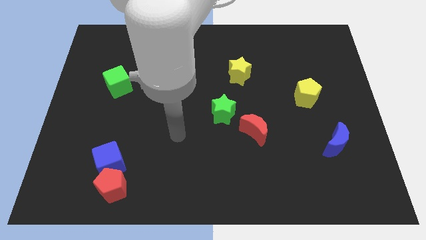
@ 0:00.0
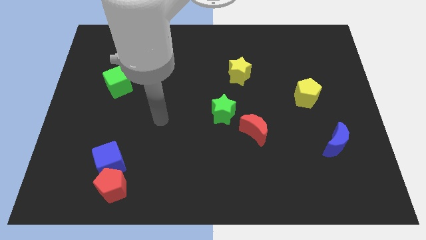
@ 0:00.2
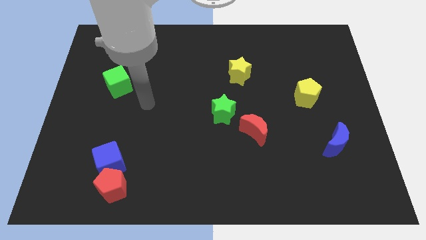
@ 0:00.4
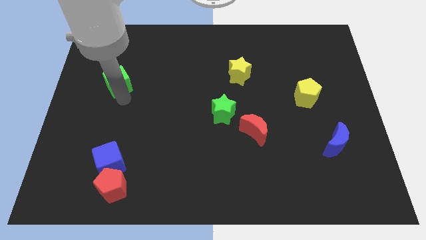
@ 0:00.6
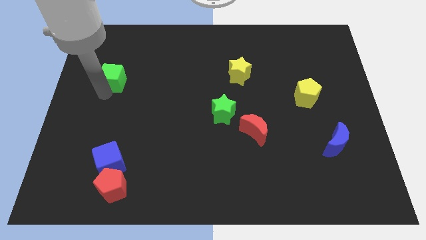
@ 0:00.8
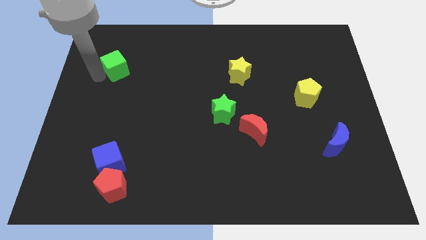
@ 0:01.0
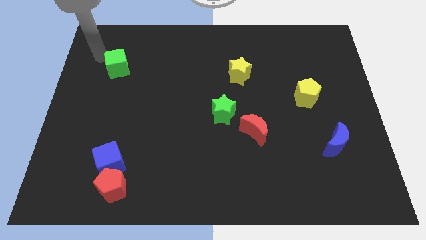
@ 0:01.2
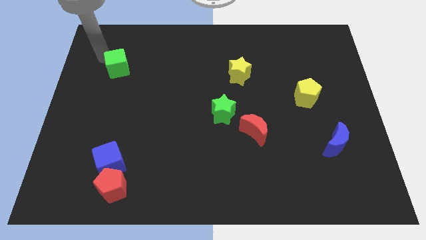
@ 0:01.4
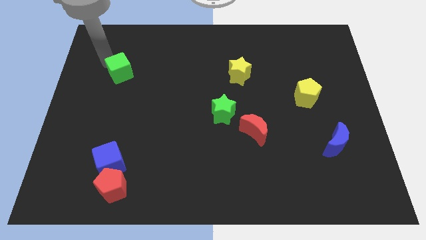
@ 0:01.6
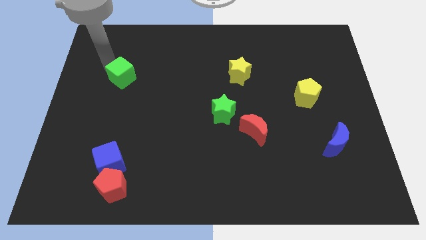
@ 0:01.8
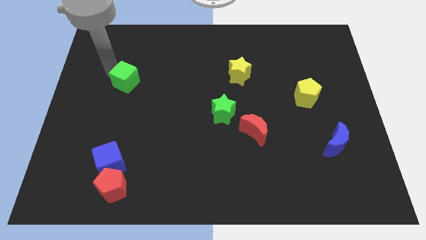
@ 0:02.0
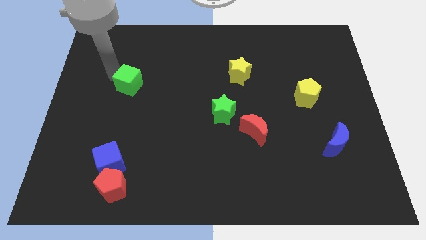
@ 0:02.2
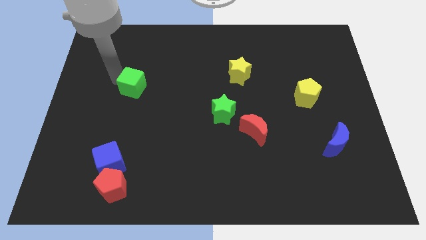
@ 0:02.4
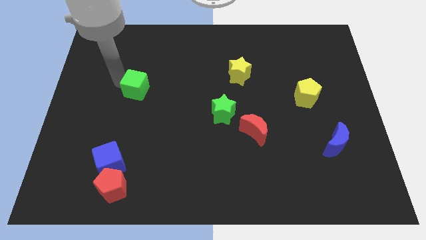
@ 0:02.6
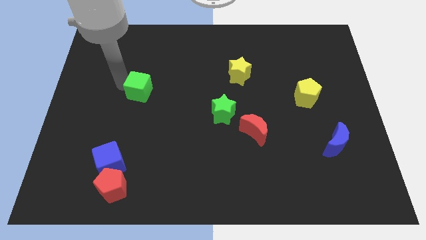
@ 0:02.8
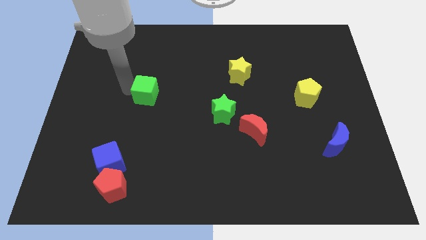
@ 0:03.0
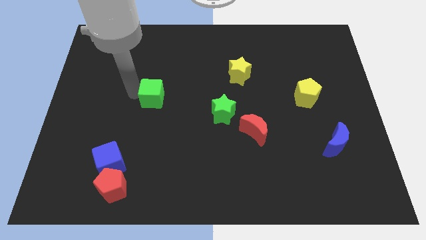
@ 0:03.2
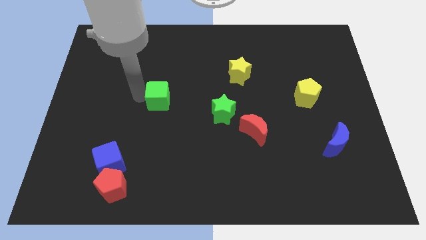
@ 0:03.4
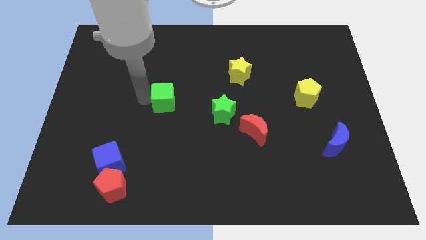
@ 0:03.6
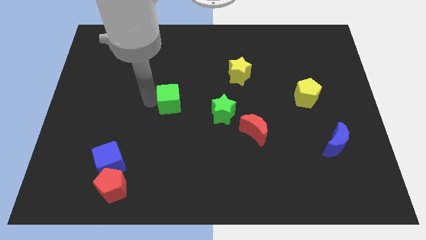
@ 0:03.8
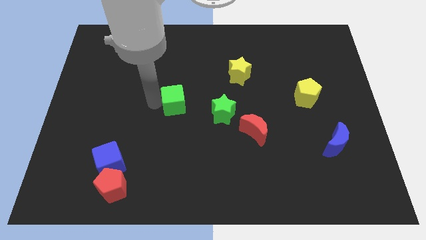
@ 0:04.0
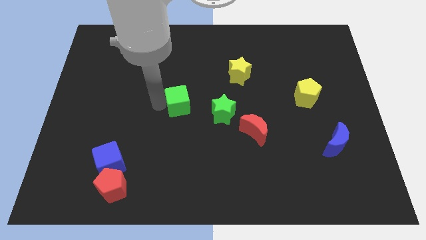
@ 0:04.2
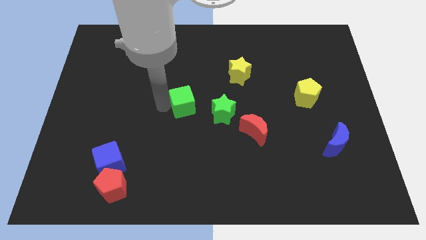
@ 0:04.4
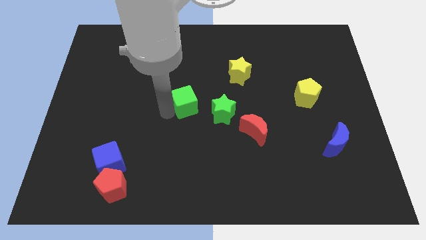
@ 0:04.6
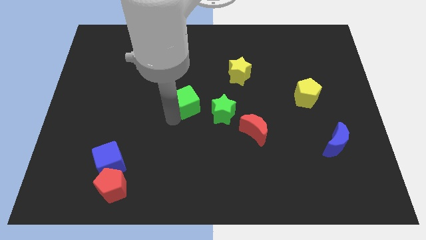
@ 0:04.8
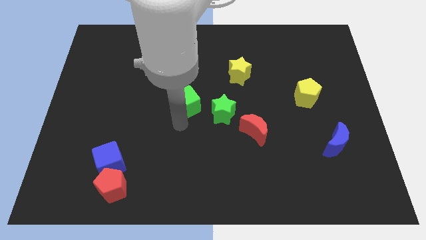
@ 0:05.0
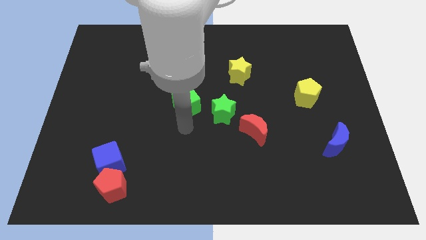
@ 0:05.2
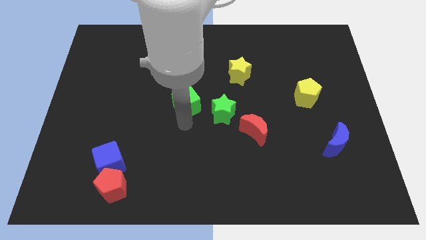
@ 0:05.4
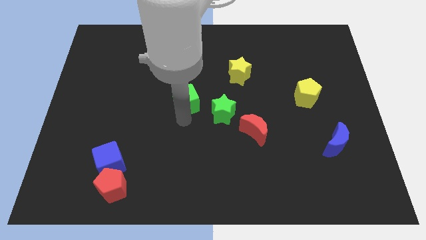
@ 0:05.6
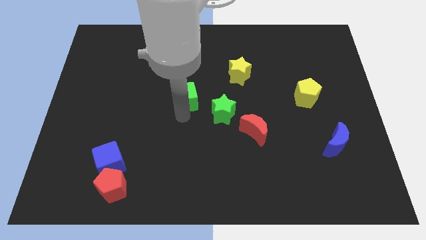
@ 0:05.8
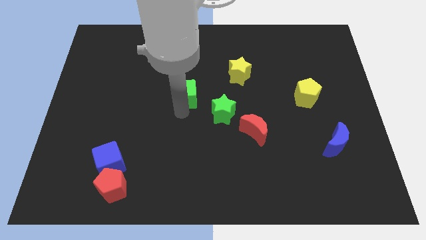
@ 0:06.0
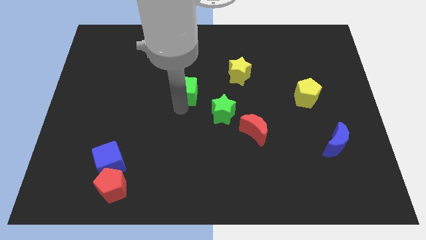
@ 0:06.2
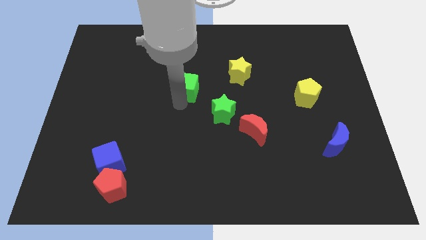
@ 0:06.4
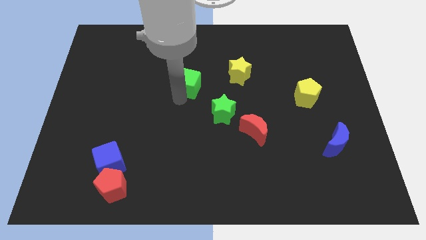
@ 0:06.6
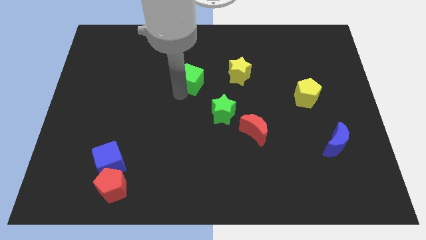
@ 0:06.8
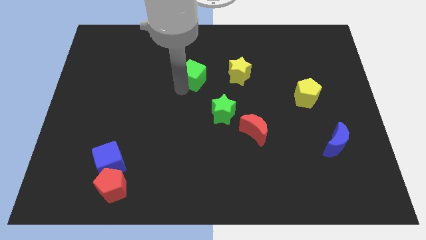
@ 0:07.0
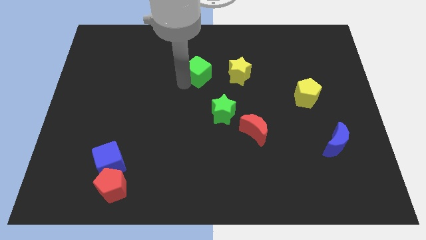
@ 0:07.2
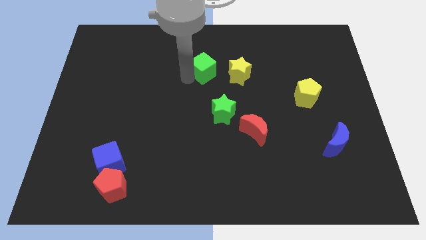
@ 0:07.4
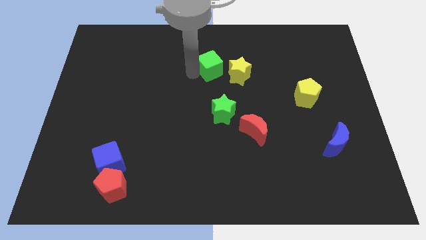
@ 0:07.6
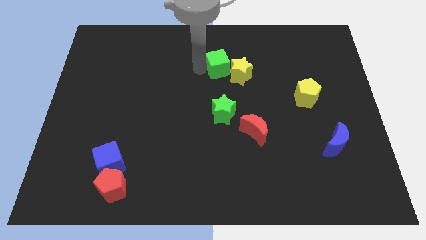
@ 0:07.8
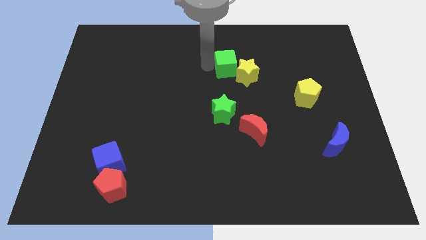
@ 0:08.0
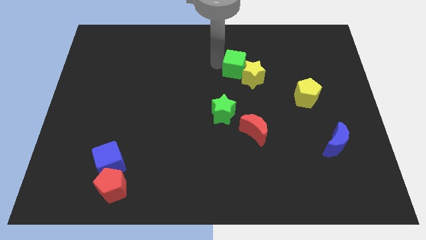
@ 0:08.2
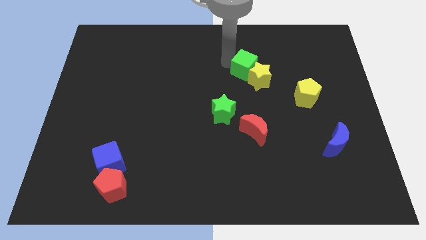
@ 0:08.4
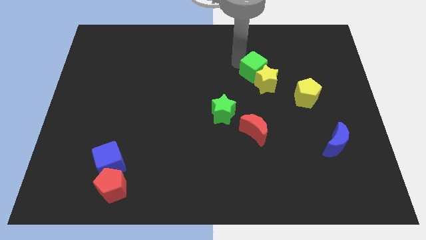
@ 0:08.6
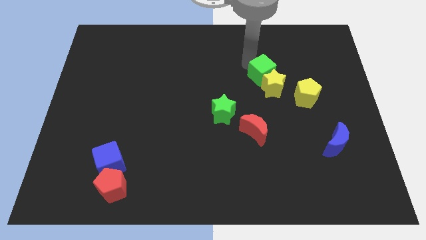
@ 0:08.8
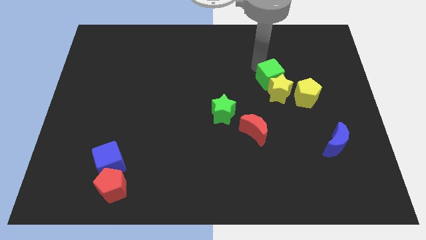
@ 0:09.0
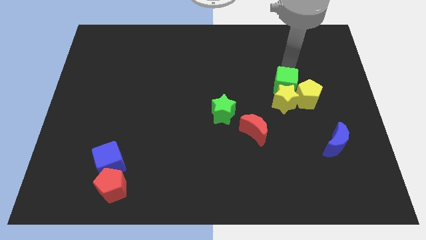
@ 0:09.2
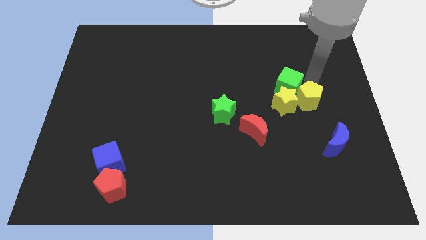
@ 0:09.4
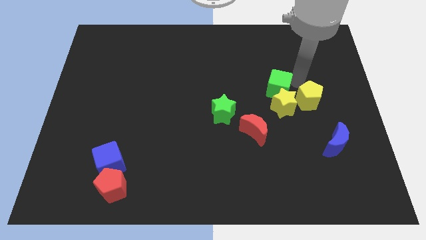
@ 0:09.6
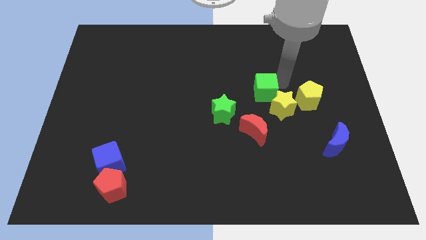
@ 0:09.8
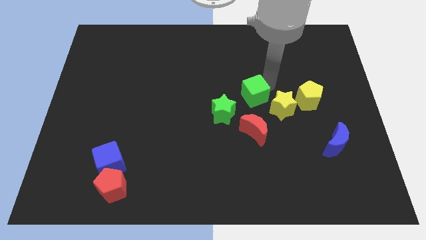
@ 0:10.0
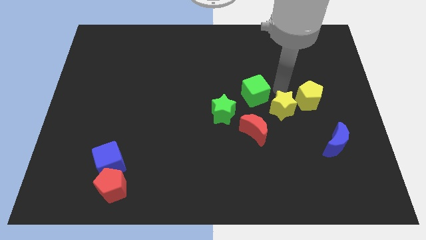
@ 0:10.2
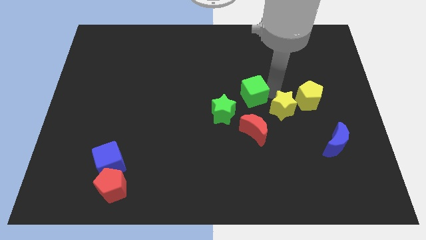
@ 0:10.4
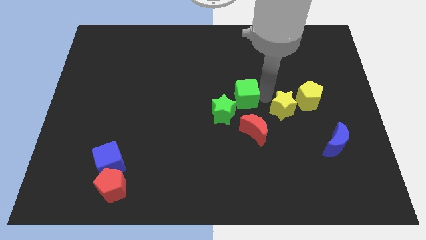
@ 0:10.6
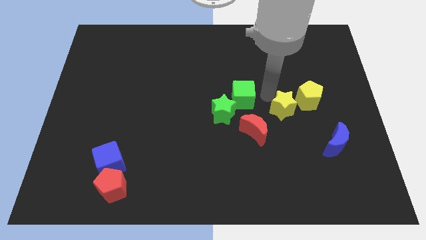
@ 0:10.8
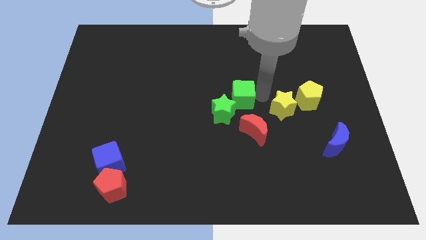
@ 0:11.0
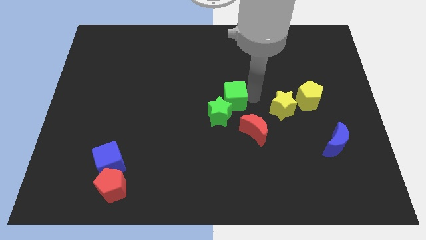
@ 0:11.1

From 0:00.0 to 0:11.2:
move the green cube next to the green star

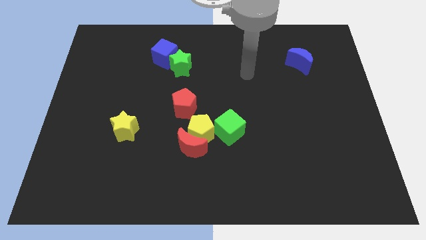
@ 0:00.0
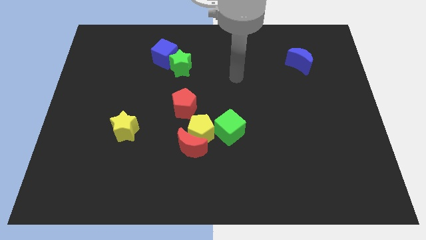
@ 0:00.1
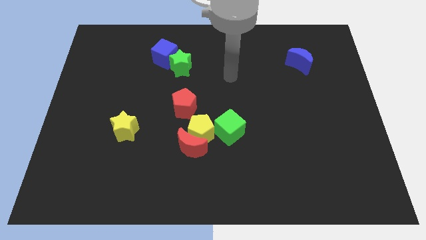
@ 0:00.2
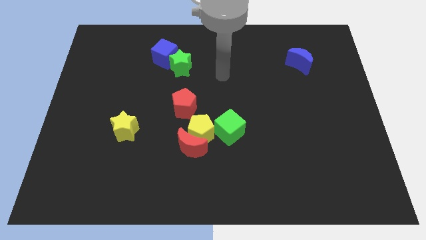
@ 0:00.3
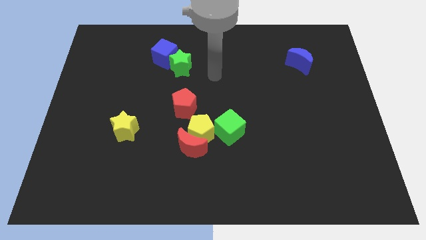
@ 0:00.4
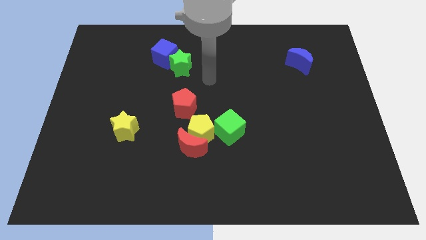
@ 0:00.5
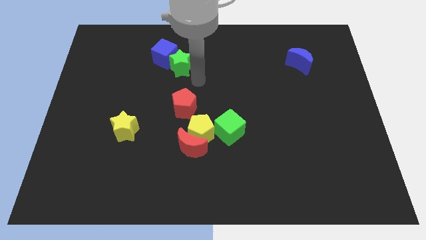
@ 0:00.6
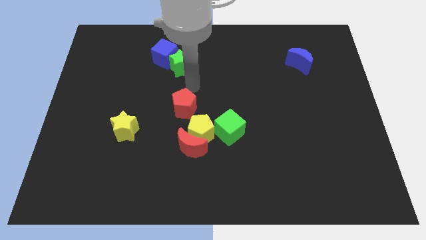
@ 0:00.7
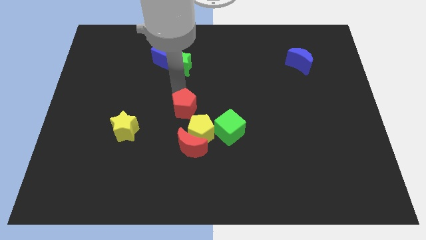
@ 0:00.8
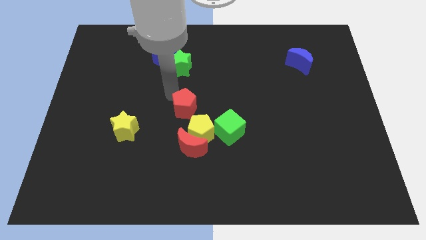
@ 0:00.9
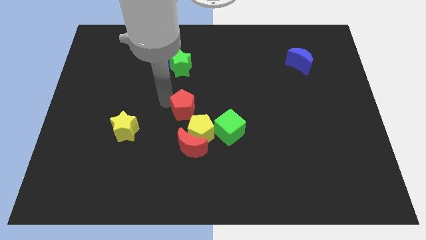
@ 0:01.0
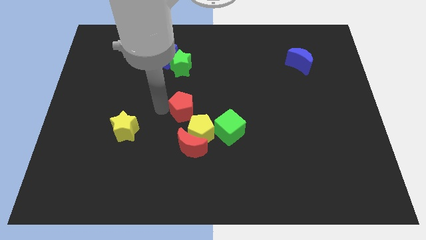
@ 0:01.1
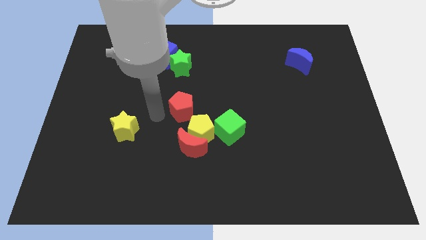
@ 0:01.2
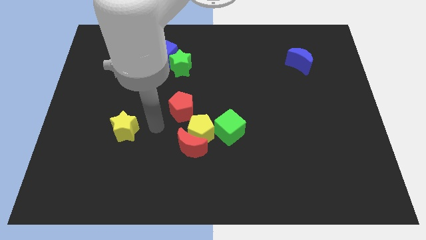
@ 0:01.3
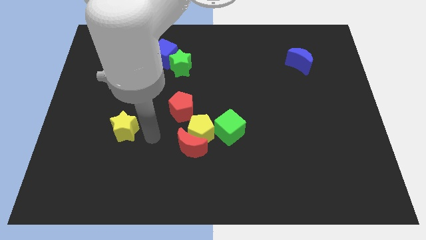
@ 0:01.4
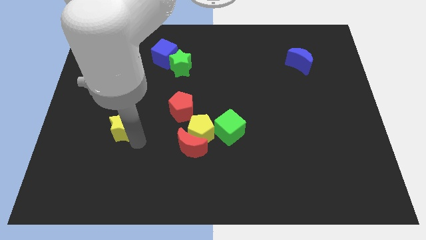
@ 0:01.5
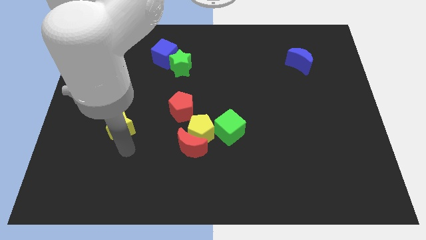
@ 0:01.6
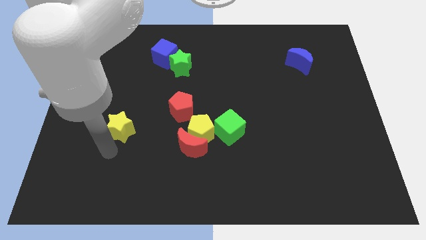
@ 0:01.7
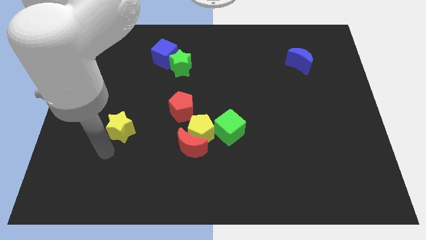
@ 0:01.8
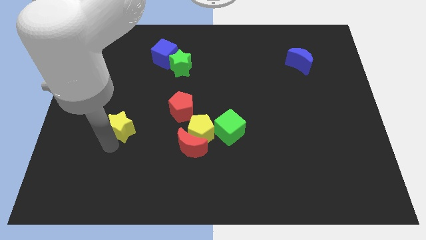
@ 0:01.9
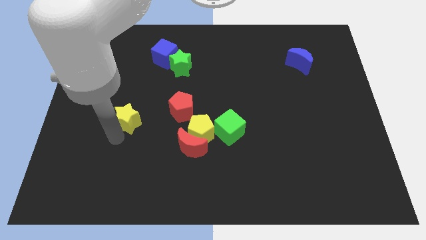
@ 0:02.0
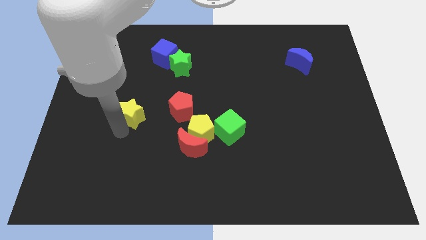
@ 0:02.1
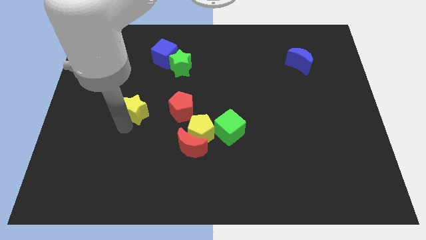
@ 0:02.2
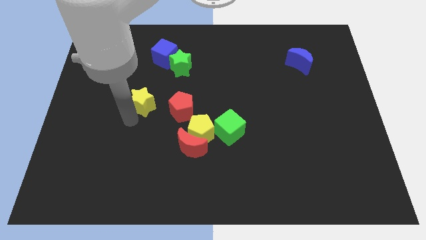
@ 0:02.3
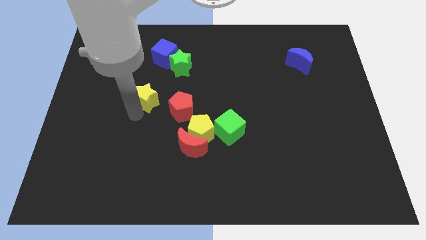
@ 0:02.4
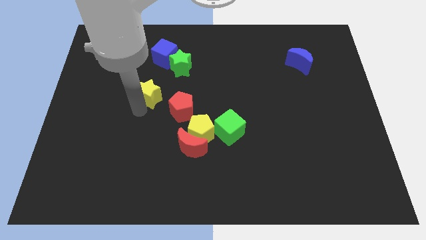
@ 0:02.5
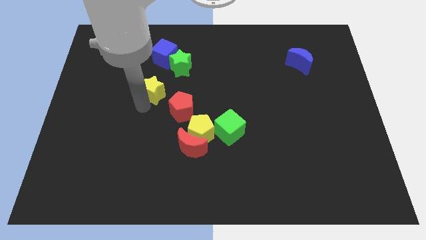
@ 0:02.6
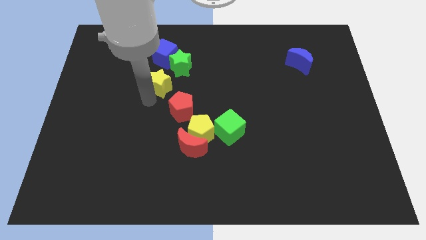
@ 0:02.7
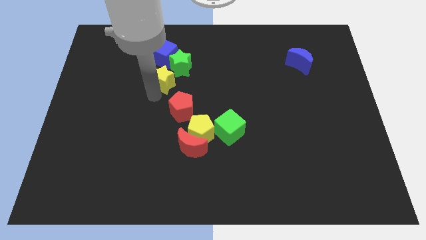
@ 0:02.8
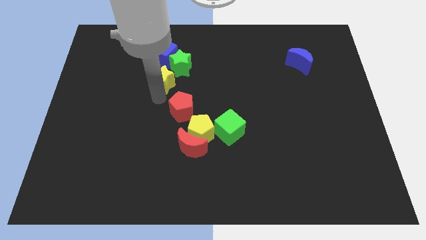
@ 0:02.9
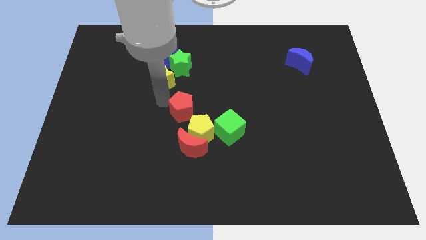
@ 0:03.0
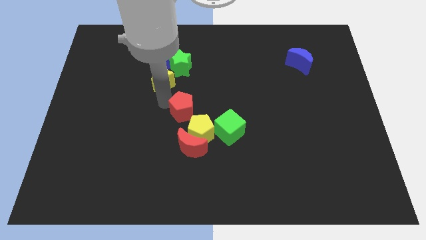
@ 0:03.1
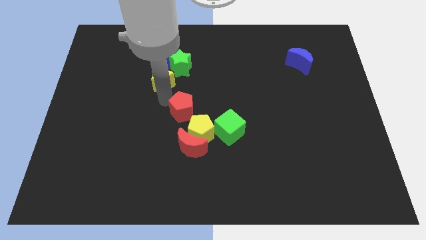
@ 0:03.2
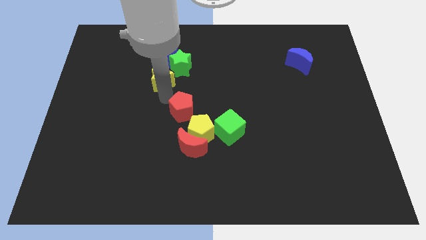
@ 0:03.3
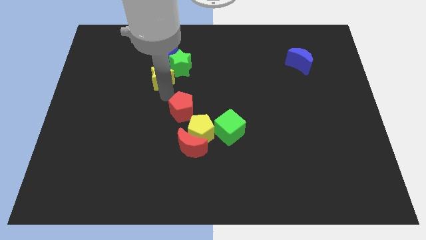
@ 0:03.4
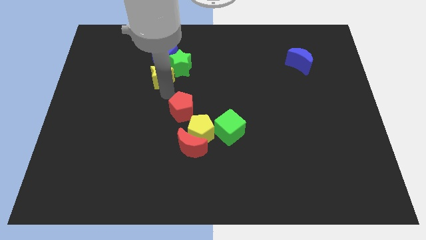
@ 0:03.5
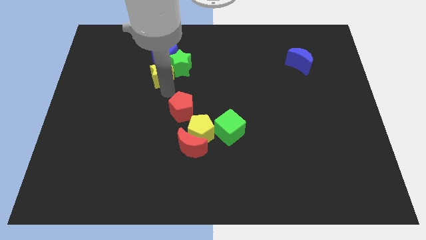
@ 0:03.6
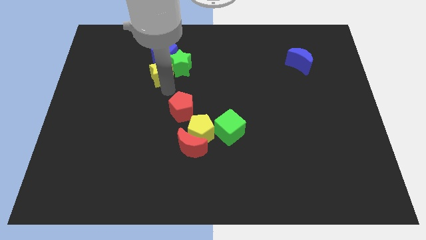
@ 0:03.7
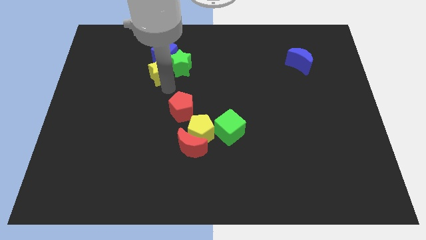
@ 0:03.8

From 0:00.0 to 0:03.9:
push the yellow star to the blue cube
